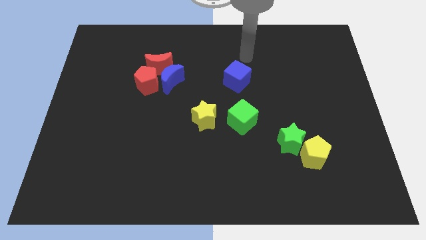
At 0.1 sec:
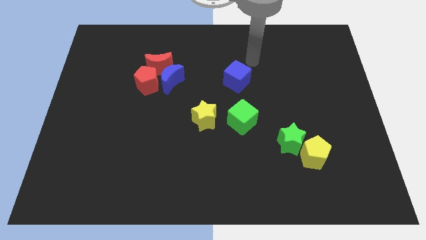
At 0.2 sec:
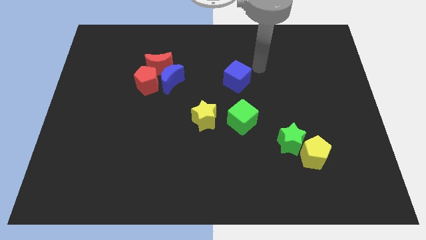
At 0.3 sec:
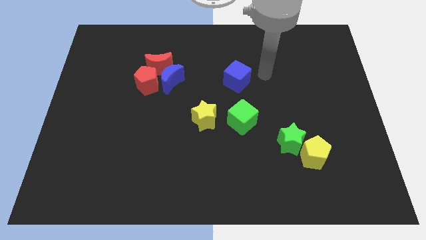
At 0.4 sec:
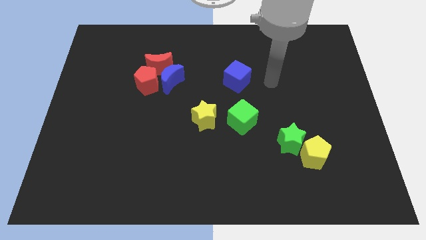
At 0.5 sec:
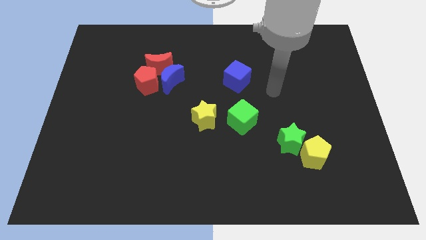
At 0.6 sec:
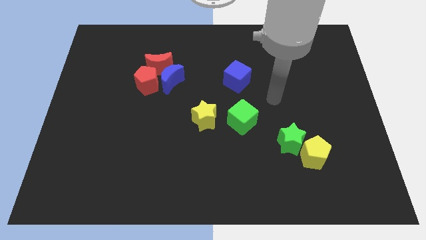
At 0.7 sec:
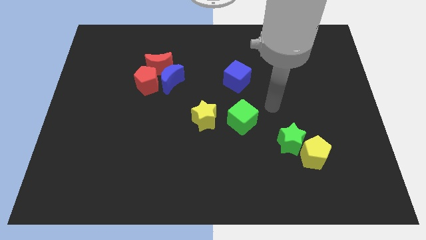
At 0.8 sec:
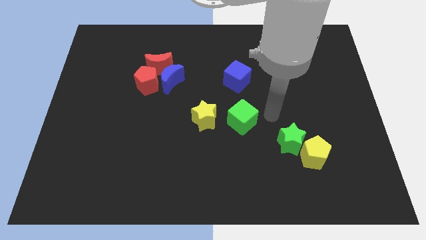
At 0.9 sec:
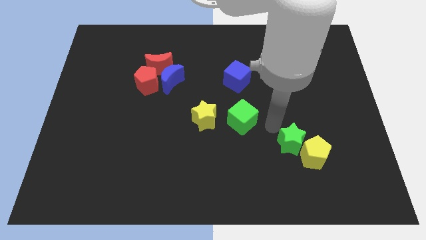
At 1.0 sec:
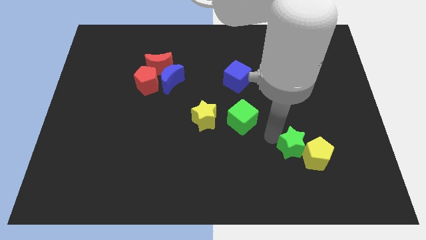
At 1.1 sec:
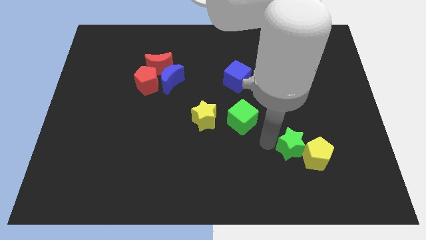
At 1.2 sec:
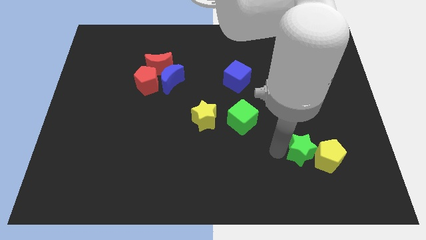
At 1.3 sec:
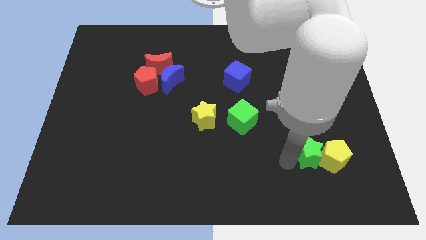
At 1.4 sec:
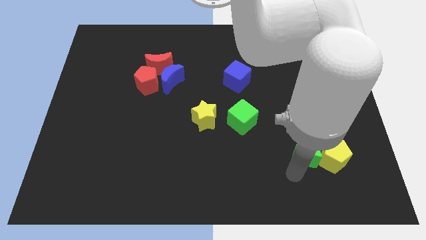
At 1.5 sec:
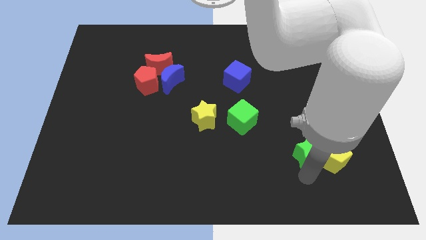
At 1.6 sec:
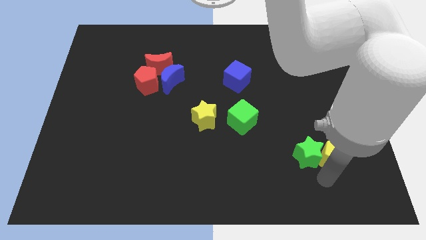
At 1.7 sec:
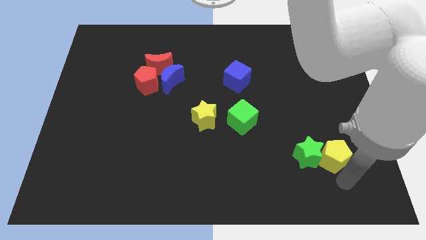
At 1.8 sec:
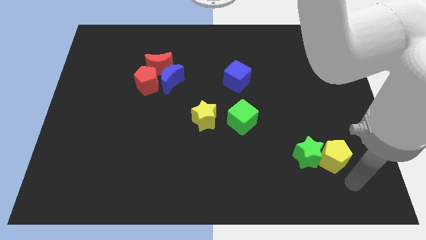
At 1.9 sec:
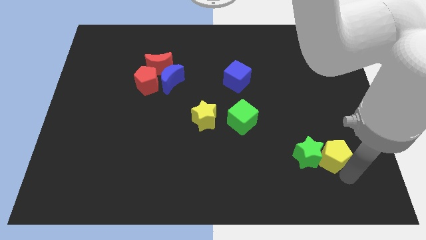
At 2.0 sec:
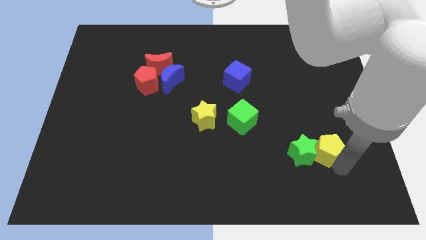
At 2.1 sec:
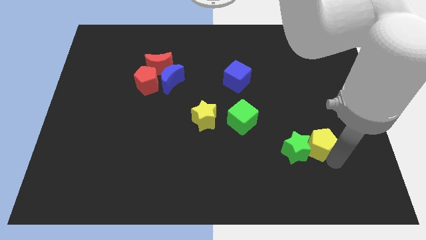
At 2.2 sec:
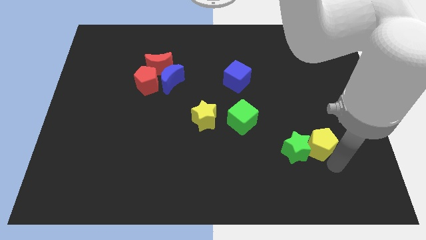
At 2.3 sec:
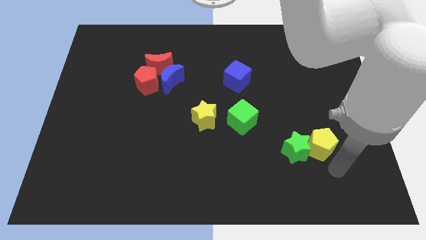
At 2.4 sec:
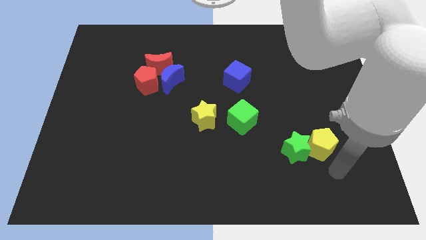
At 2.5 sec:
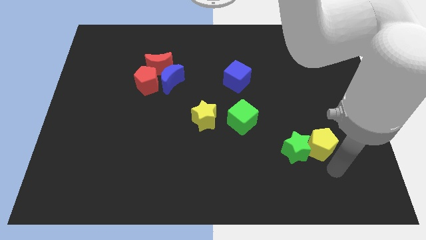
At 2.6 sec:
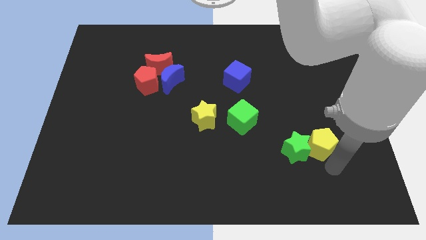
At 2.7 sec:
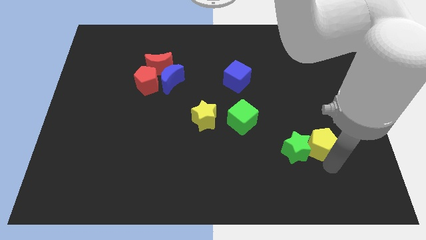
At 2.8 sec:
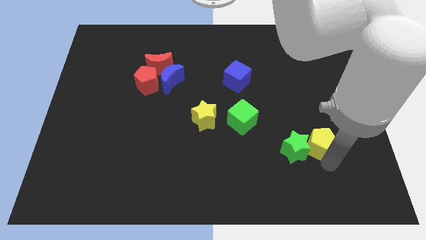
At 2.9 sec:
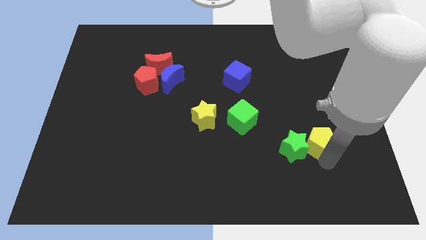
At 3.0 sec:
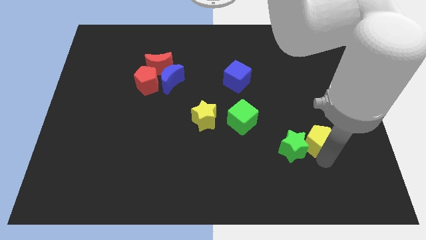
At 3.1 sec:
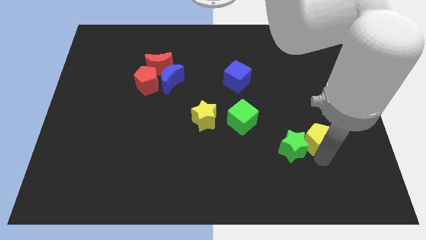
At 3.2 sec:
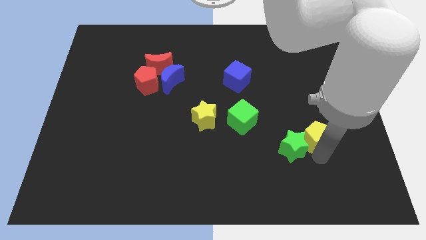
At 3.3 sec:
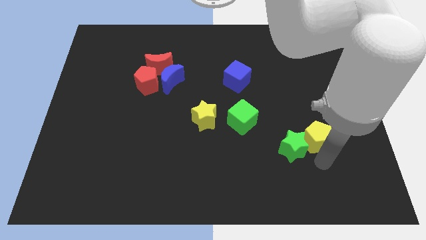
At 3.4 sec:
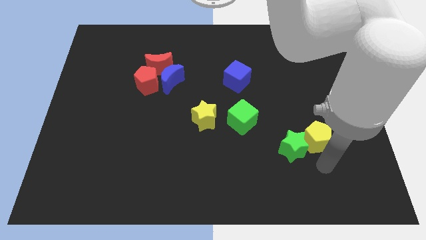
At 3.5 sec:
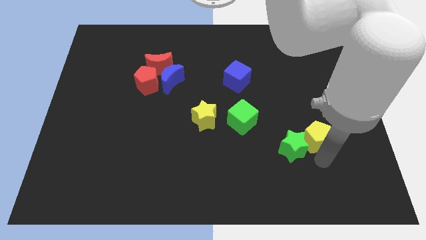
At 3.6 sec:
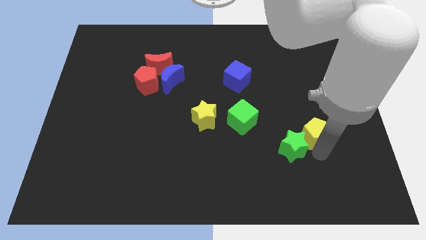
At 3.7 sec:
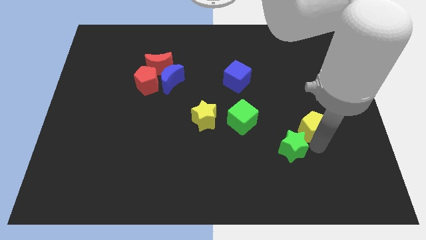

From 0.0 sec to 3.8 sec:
slightly push the yellow pentagon up

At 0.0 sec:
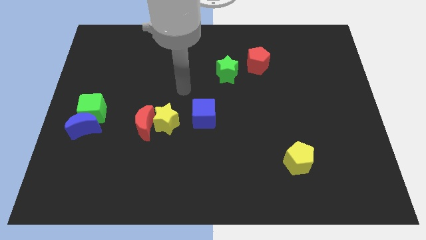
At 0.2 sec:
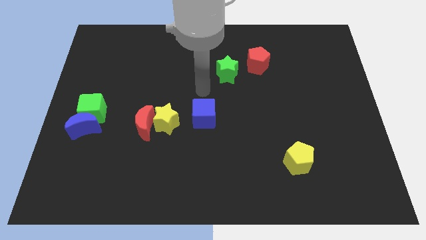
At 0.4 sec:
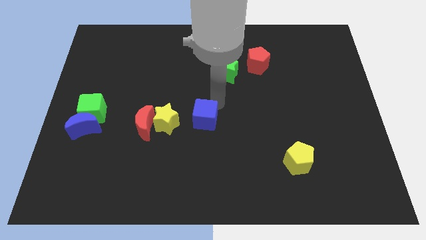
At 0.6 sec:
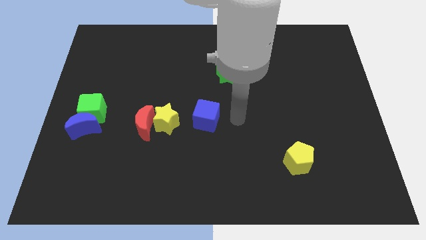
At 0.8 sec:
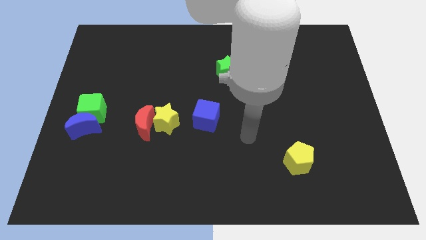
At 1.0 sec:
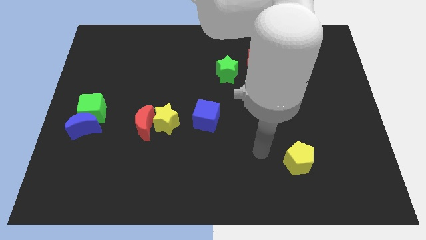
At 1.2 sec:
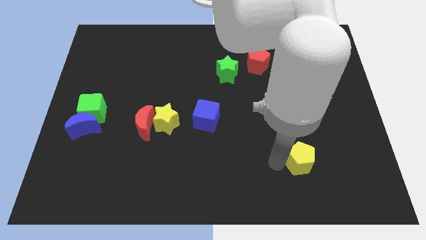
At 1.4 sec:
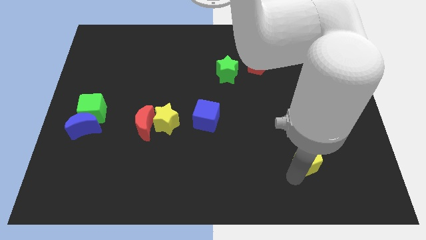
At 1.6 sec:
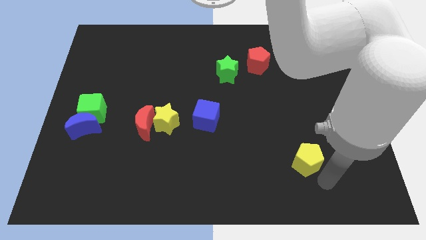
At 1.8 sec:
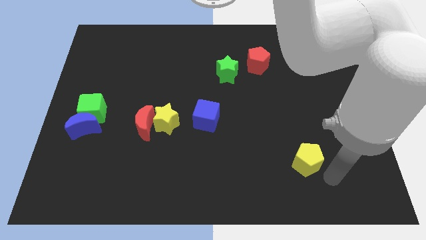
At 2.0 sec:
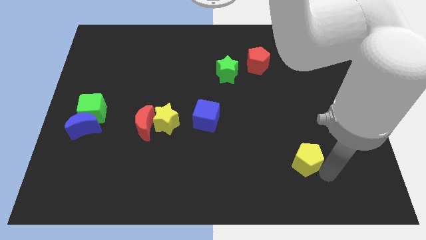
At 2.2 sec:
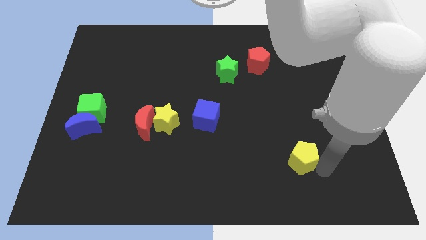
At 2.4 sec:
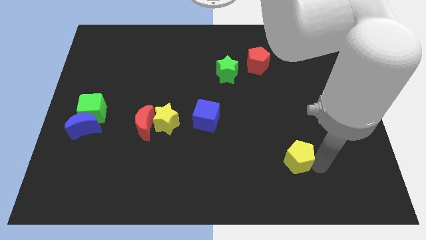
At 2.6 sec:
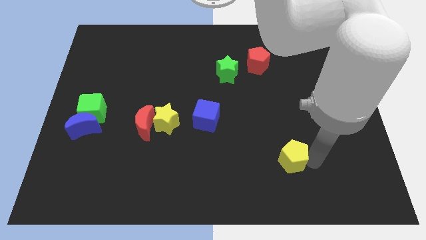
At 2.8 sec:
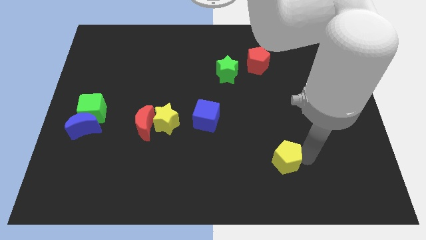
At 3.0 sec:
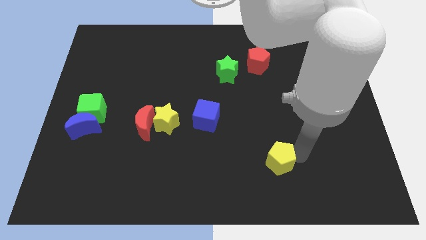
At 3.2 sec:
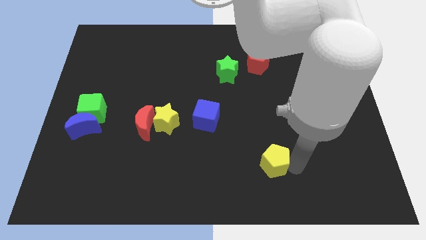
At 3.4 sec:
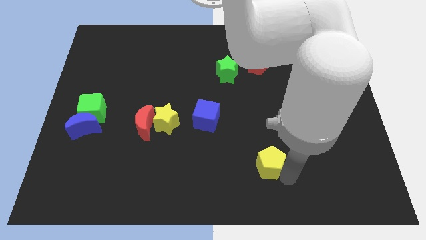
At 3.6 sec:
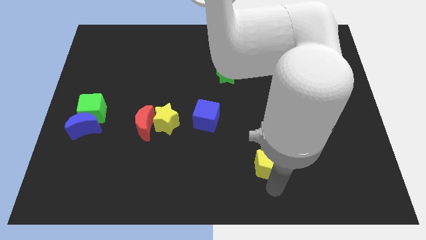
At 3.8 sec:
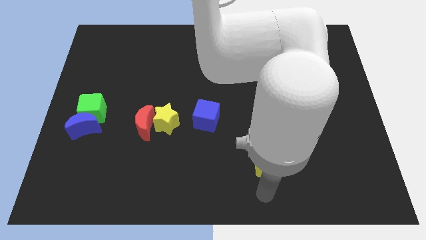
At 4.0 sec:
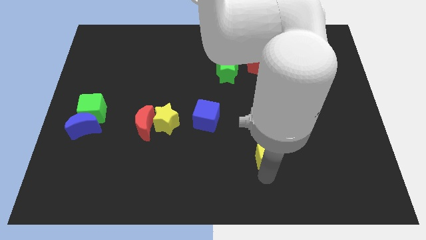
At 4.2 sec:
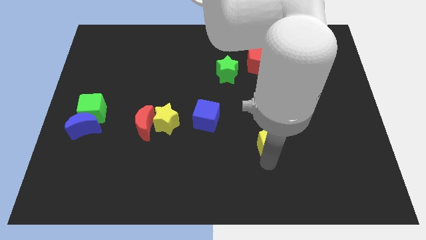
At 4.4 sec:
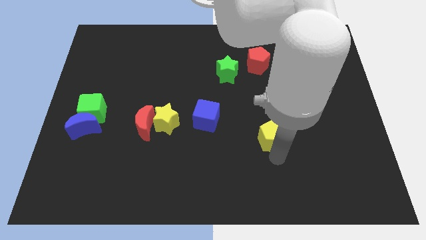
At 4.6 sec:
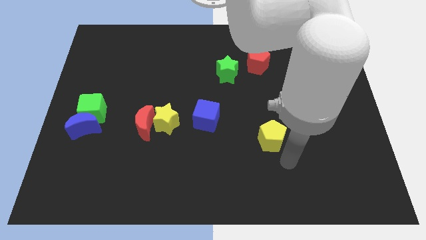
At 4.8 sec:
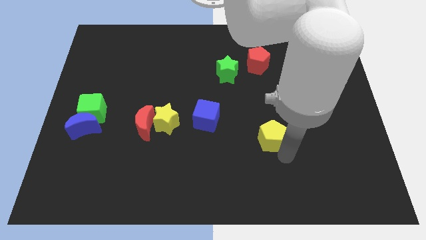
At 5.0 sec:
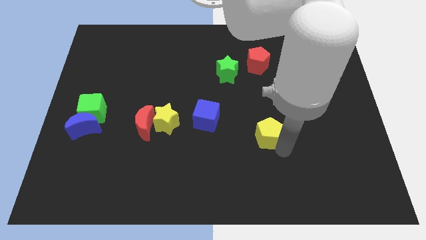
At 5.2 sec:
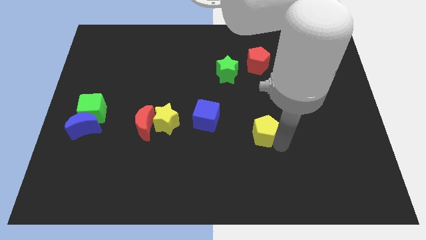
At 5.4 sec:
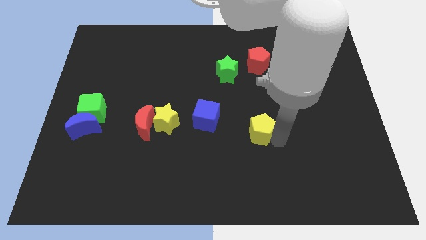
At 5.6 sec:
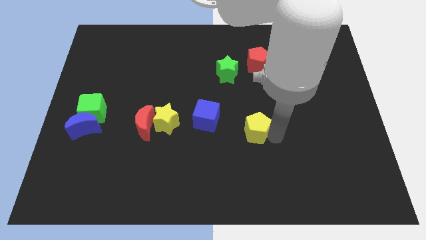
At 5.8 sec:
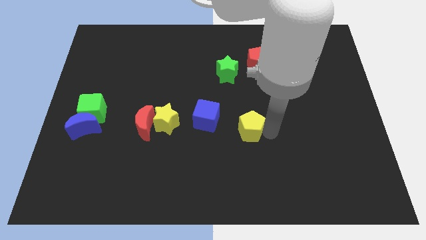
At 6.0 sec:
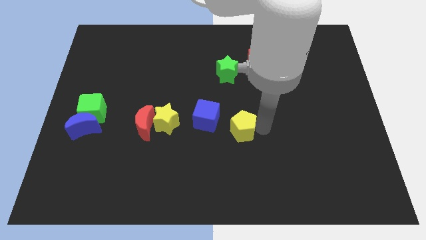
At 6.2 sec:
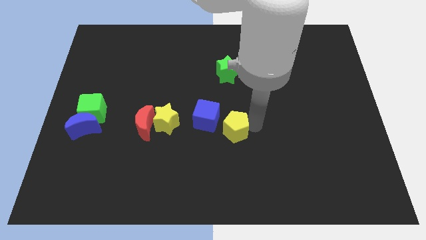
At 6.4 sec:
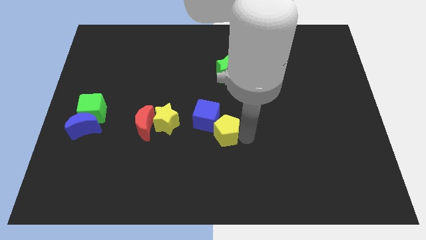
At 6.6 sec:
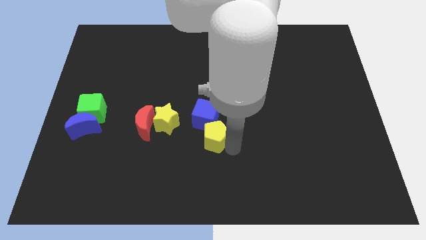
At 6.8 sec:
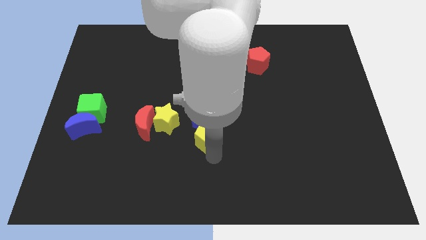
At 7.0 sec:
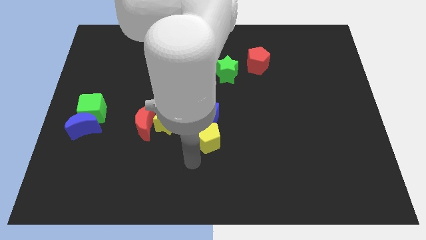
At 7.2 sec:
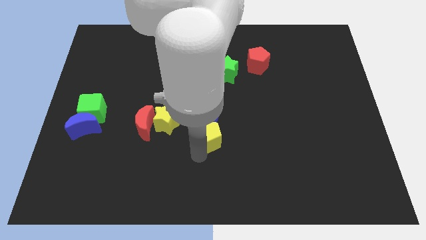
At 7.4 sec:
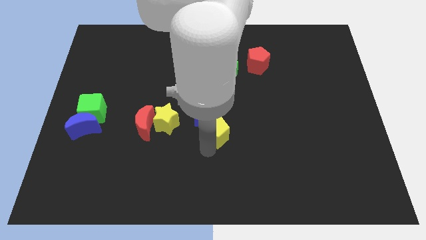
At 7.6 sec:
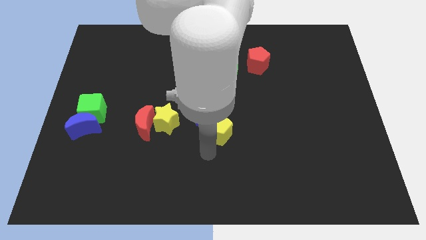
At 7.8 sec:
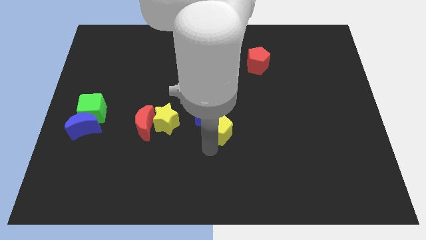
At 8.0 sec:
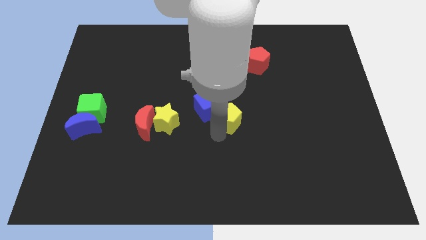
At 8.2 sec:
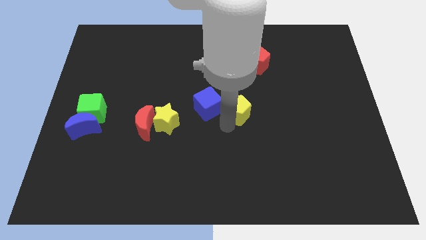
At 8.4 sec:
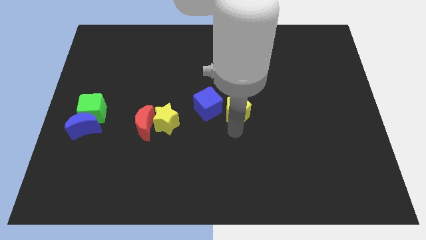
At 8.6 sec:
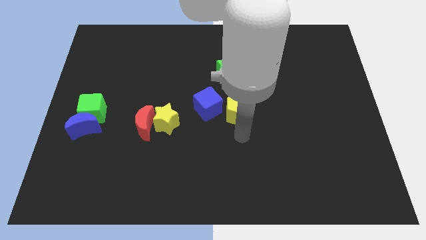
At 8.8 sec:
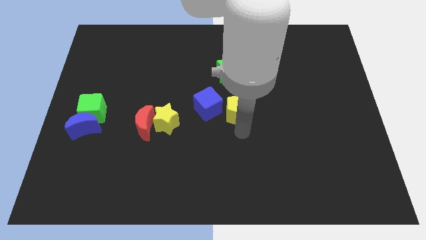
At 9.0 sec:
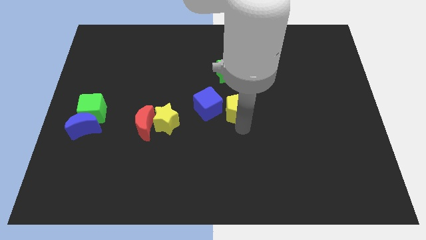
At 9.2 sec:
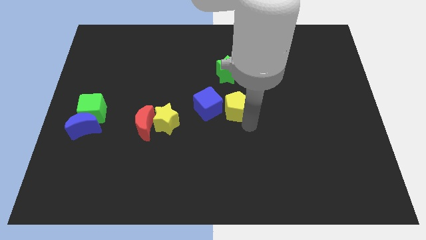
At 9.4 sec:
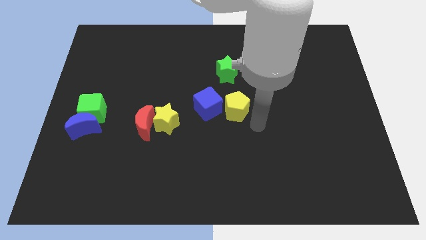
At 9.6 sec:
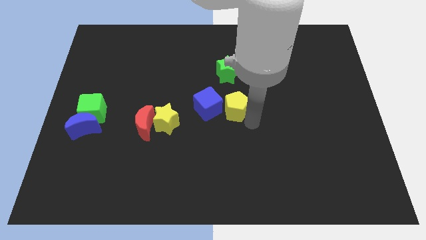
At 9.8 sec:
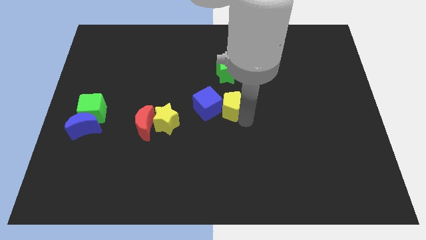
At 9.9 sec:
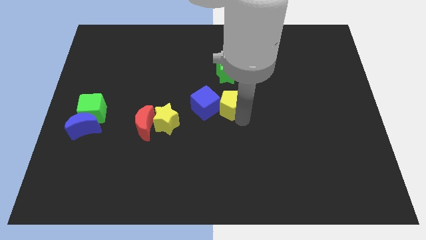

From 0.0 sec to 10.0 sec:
push the yellow pentagon up and then to the left
